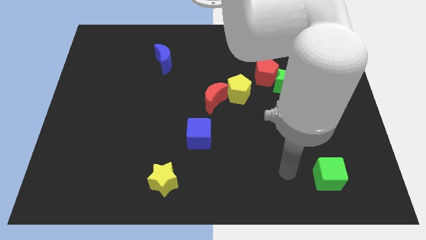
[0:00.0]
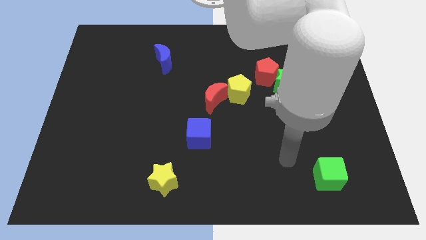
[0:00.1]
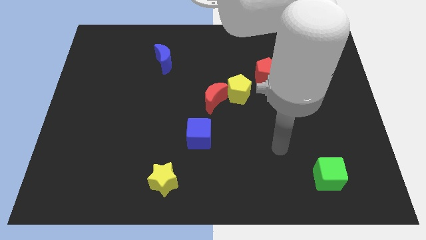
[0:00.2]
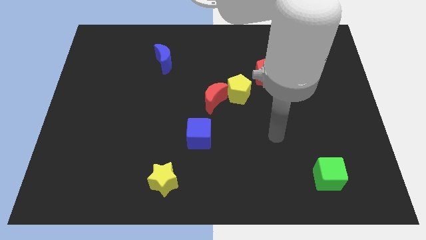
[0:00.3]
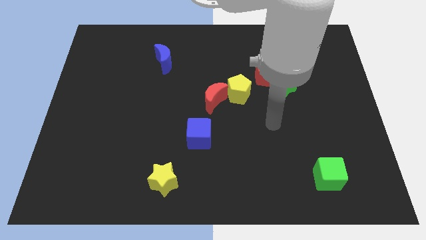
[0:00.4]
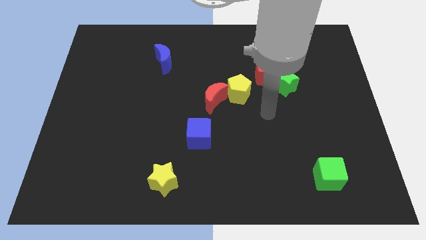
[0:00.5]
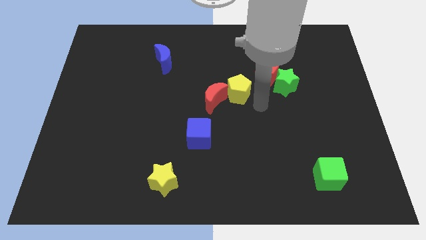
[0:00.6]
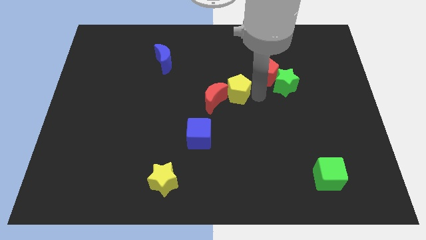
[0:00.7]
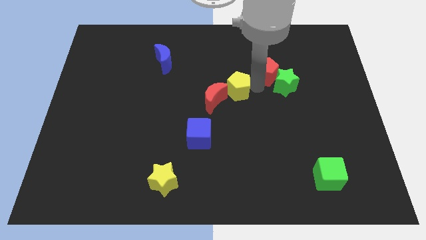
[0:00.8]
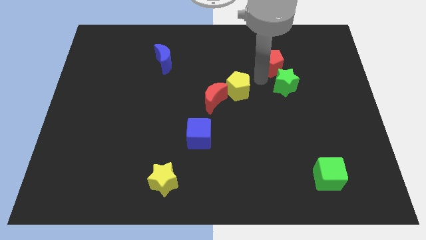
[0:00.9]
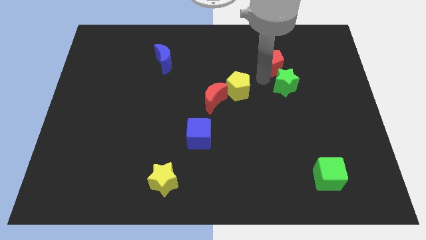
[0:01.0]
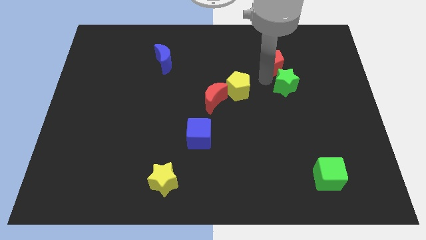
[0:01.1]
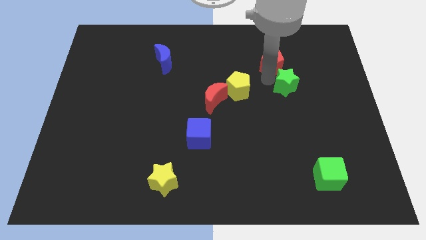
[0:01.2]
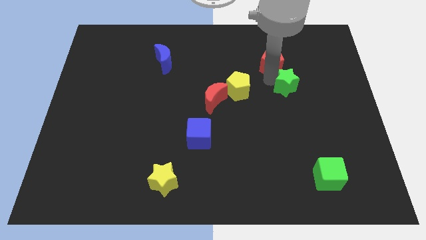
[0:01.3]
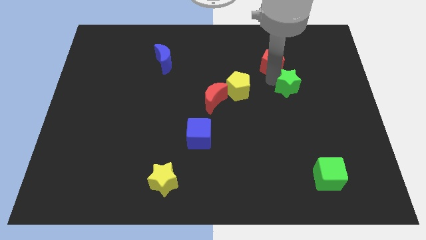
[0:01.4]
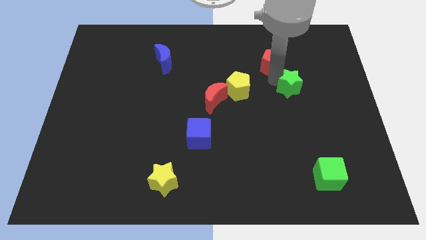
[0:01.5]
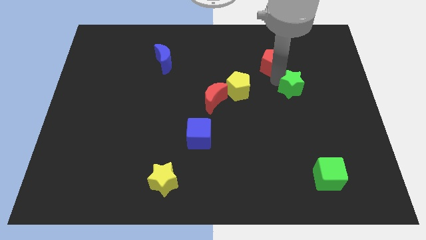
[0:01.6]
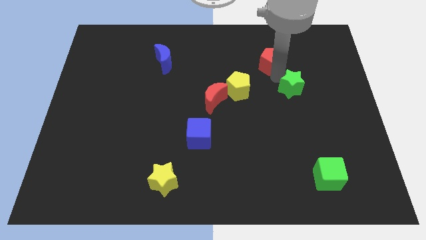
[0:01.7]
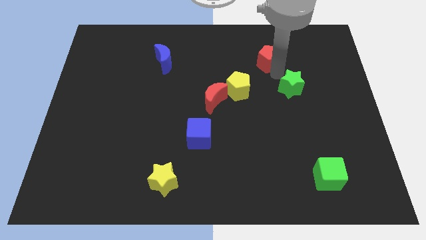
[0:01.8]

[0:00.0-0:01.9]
pull the green star apart from the red pentagon

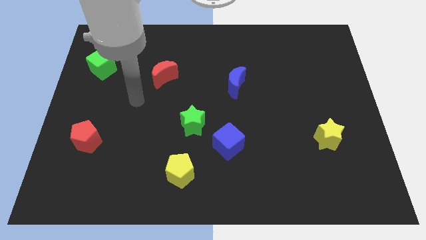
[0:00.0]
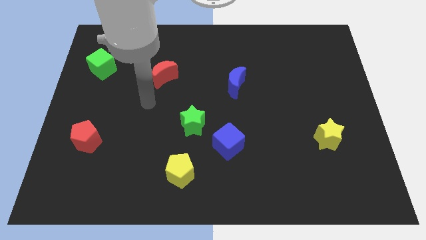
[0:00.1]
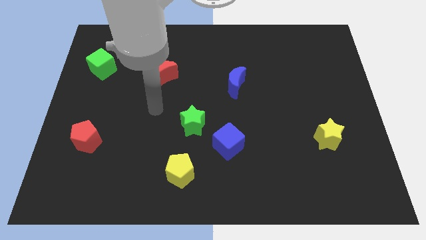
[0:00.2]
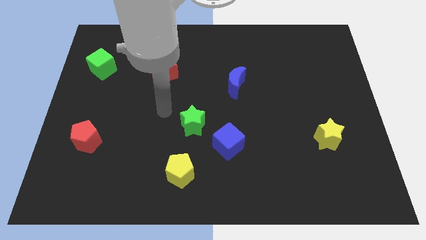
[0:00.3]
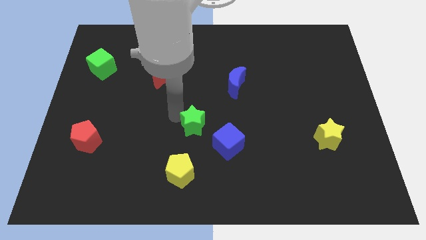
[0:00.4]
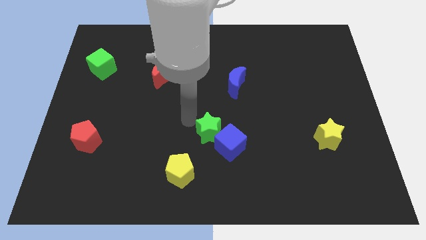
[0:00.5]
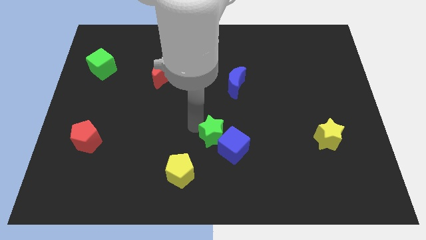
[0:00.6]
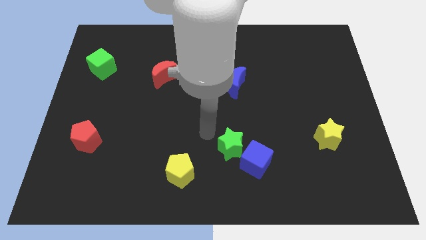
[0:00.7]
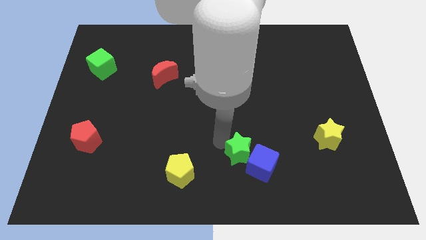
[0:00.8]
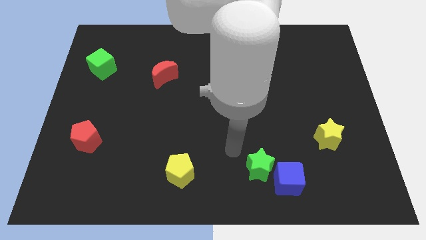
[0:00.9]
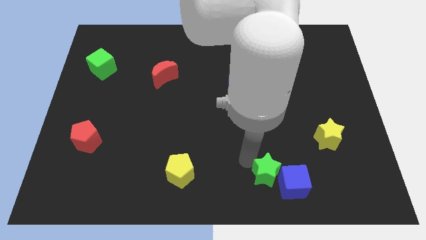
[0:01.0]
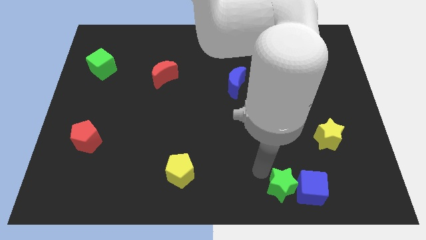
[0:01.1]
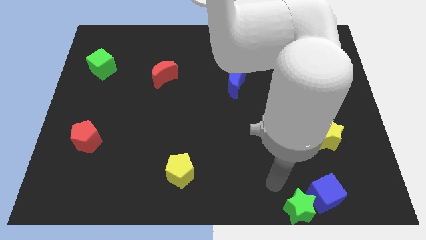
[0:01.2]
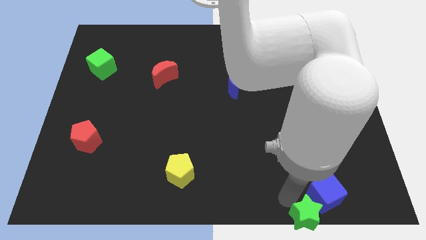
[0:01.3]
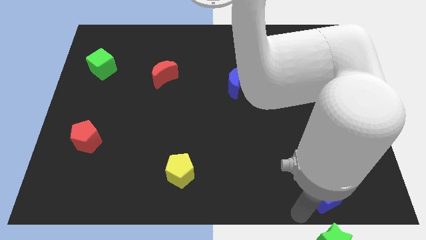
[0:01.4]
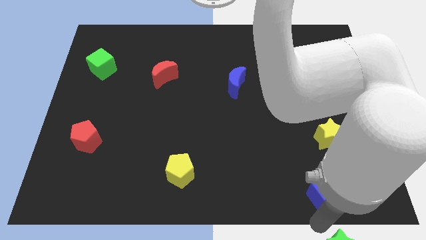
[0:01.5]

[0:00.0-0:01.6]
pull the blue cube apart from the green star

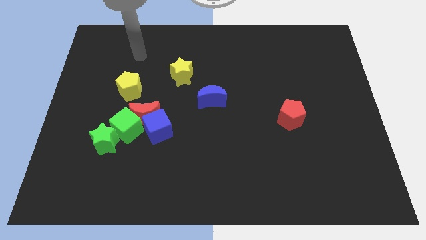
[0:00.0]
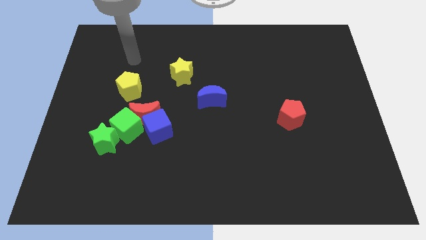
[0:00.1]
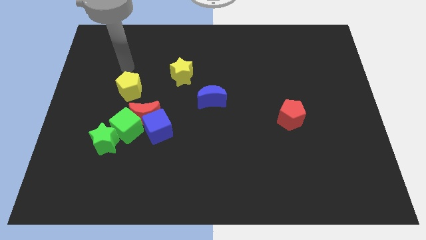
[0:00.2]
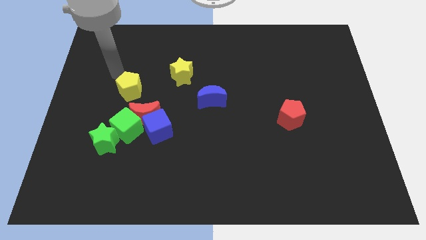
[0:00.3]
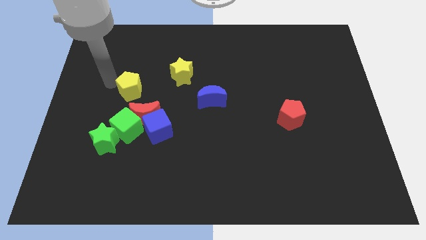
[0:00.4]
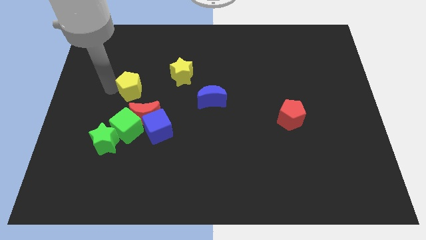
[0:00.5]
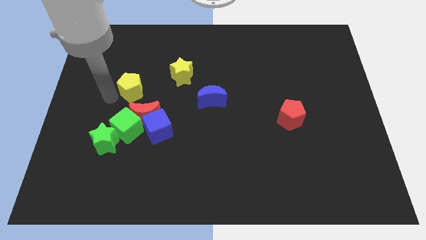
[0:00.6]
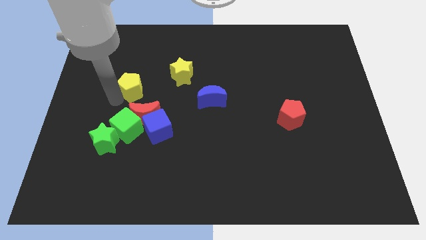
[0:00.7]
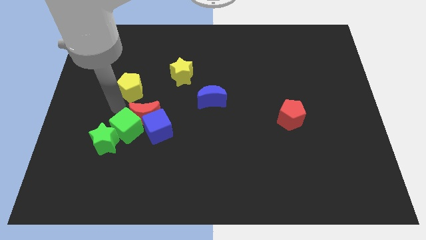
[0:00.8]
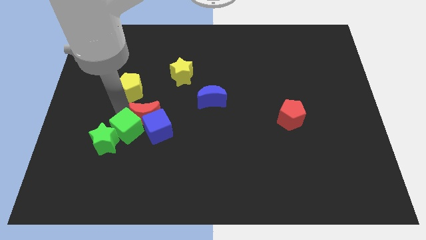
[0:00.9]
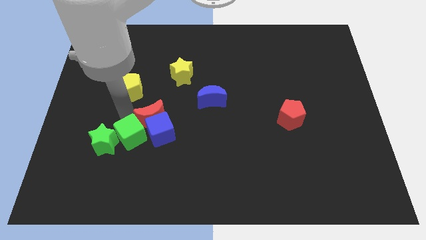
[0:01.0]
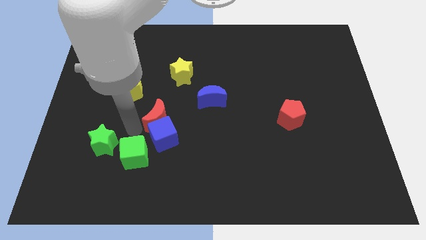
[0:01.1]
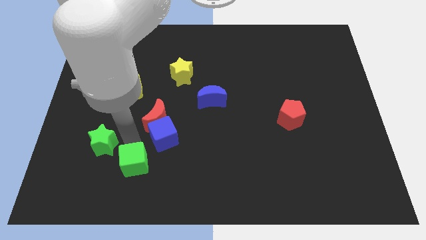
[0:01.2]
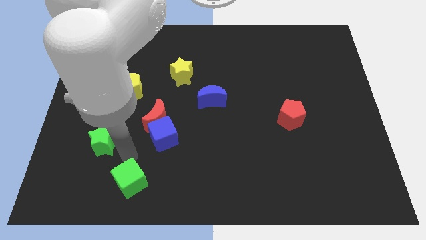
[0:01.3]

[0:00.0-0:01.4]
move the green star away from the green cube

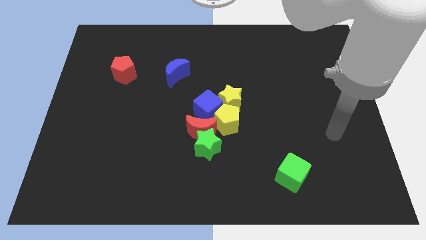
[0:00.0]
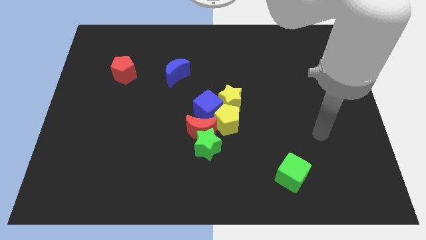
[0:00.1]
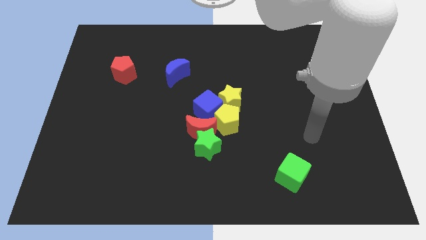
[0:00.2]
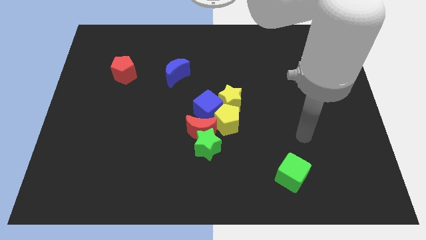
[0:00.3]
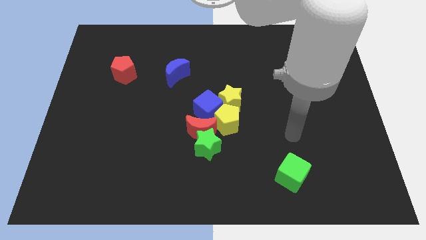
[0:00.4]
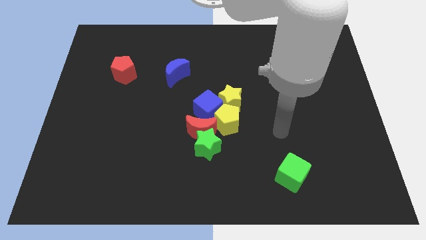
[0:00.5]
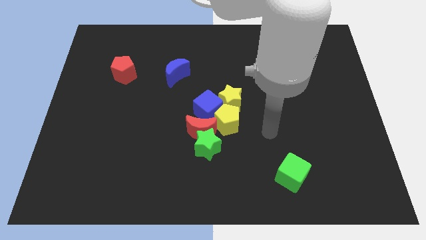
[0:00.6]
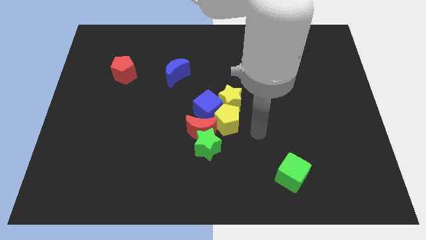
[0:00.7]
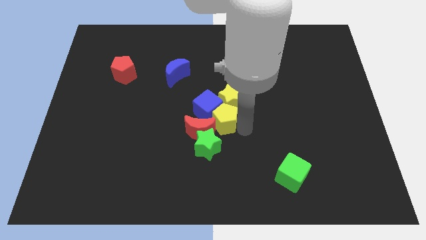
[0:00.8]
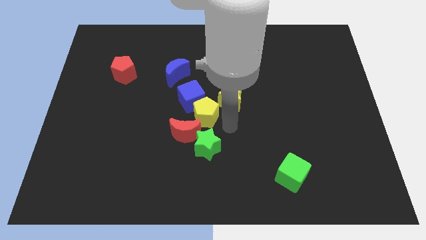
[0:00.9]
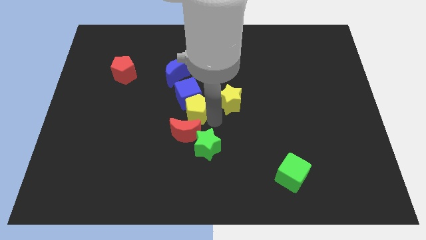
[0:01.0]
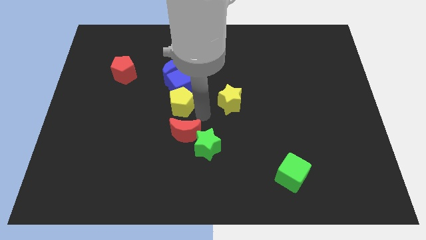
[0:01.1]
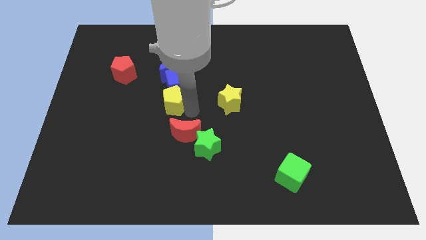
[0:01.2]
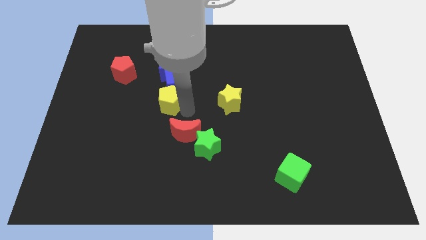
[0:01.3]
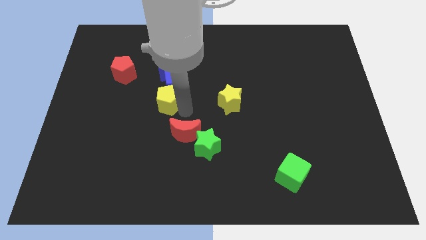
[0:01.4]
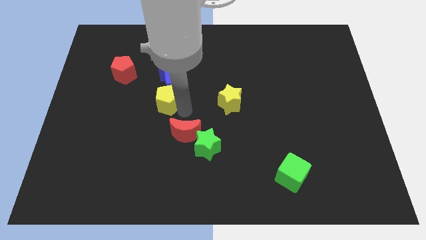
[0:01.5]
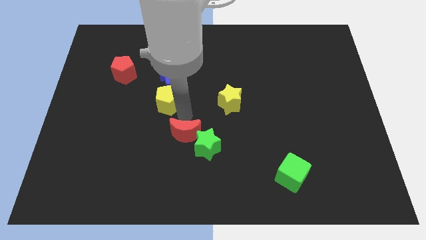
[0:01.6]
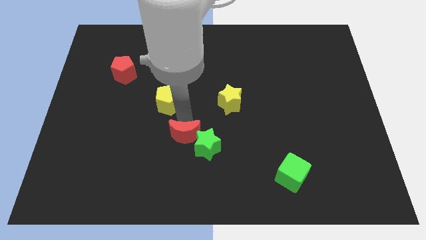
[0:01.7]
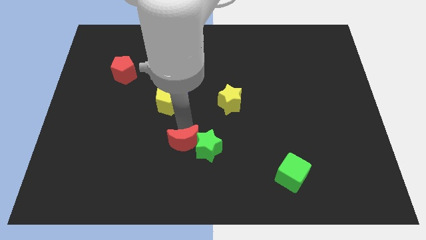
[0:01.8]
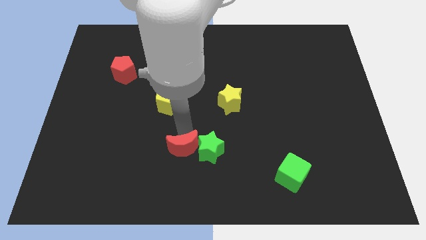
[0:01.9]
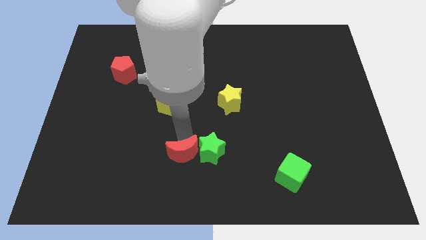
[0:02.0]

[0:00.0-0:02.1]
separate the red moon from the green star, blue cube, and yellow pentagon

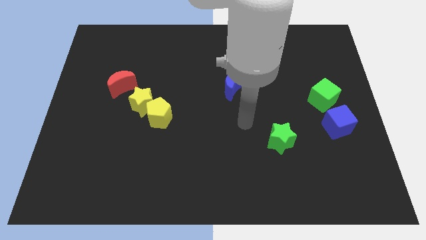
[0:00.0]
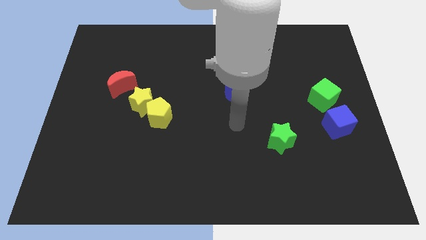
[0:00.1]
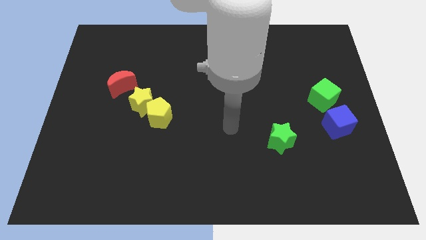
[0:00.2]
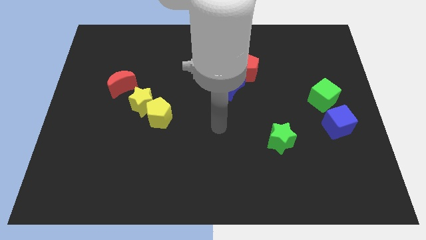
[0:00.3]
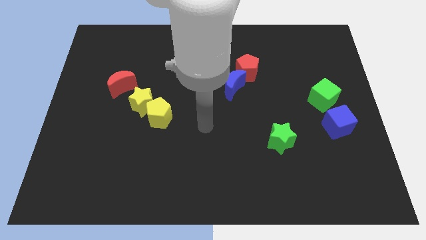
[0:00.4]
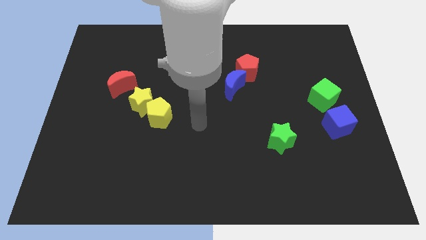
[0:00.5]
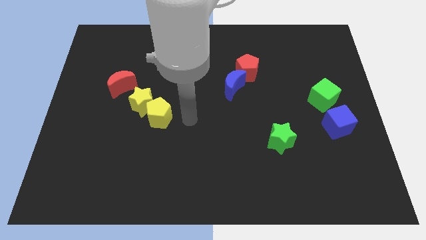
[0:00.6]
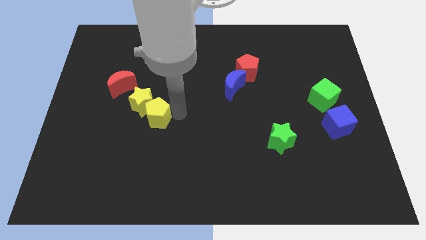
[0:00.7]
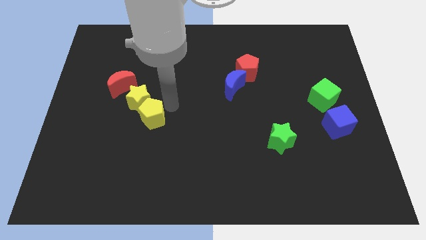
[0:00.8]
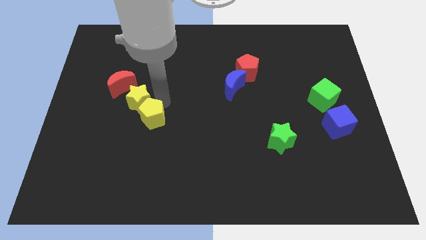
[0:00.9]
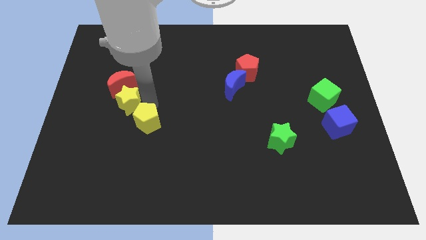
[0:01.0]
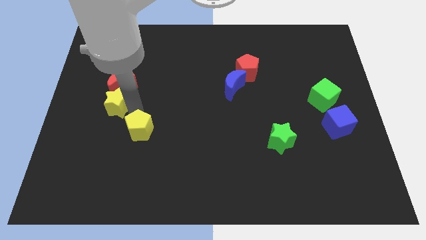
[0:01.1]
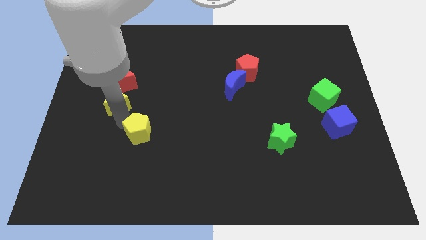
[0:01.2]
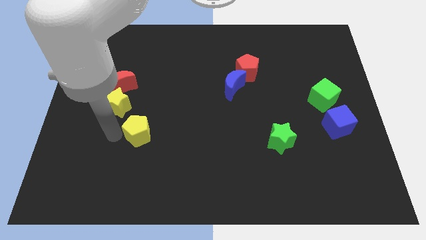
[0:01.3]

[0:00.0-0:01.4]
pull the yellow pentagon apart from the yellow star

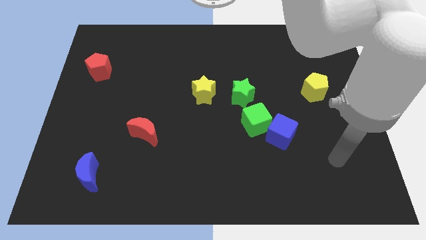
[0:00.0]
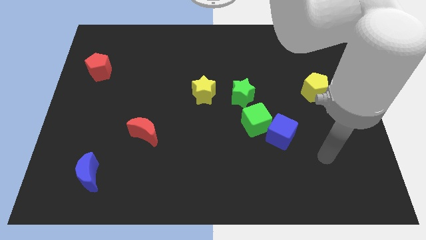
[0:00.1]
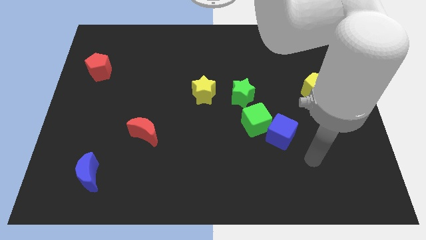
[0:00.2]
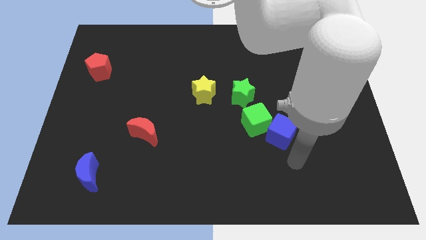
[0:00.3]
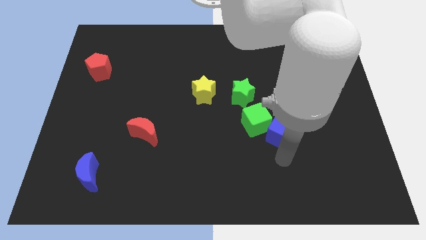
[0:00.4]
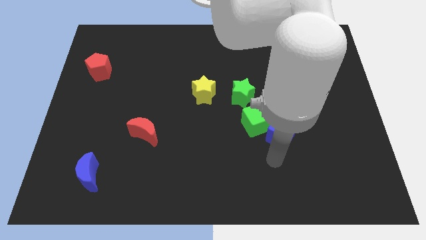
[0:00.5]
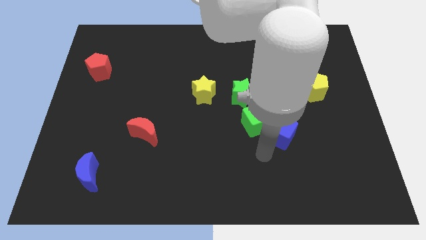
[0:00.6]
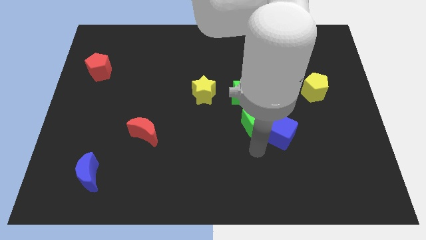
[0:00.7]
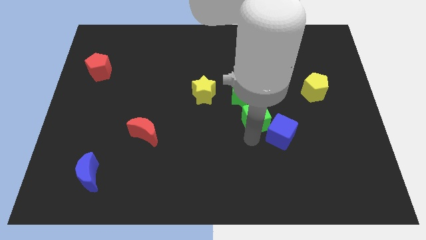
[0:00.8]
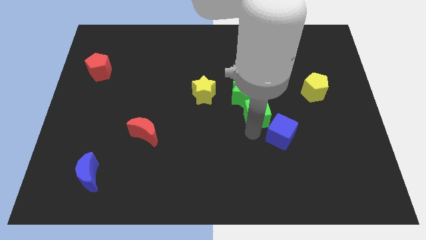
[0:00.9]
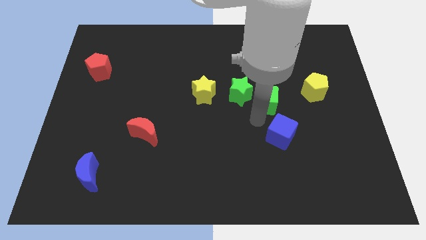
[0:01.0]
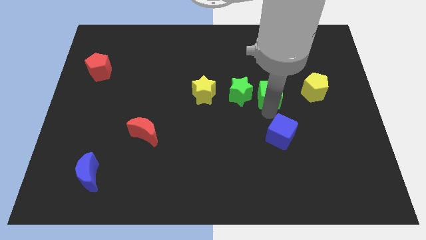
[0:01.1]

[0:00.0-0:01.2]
pull the blue cube apart from the green cube
